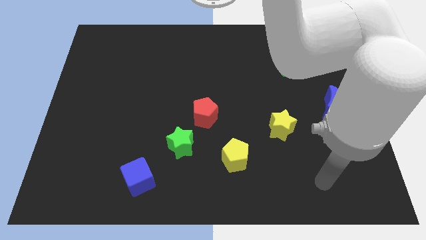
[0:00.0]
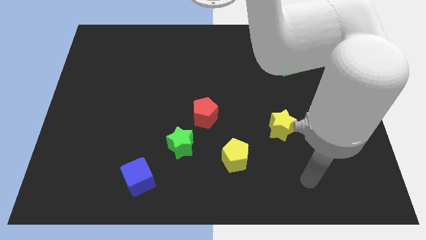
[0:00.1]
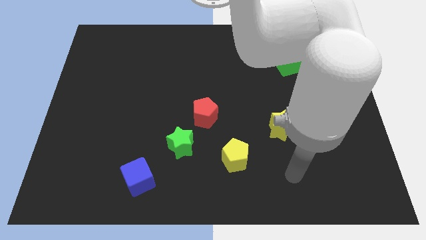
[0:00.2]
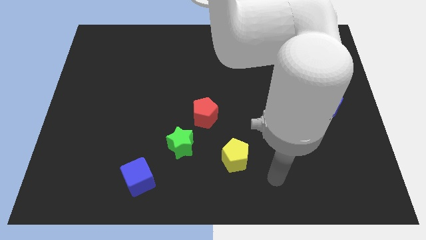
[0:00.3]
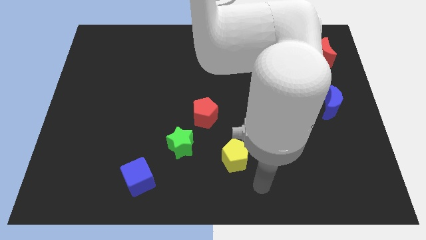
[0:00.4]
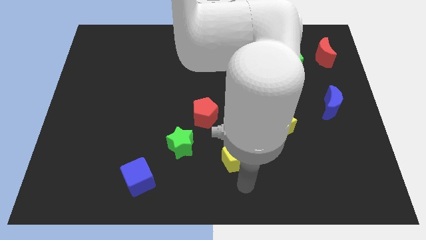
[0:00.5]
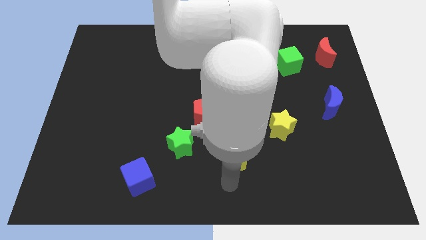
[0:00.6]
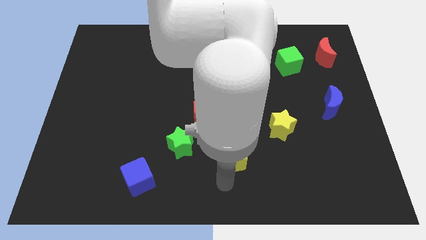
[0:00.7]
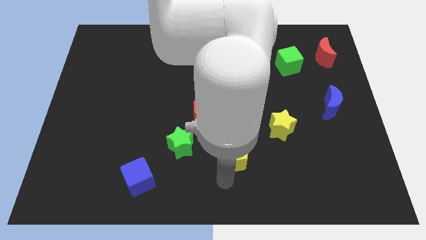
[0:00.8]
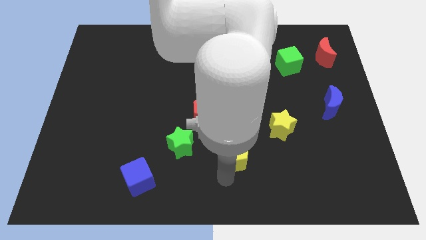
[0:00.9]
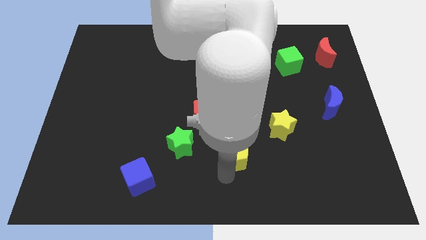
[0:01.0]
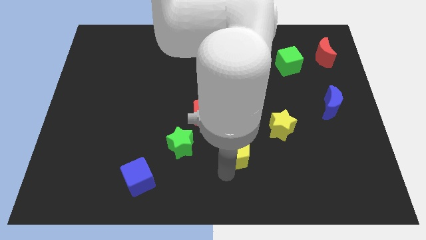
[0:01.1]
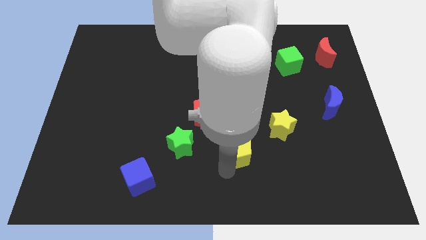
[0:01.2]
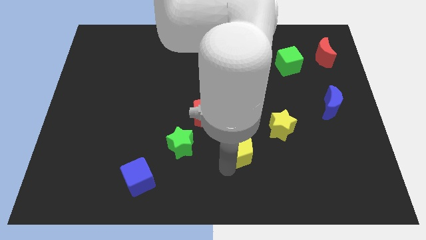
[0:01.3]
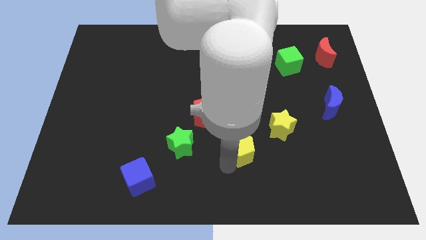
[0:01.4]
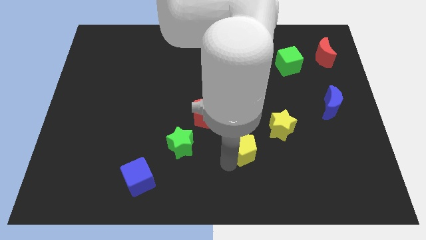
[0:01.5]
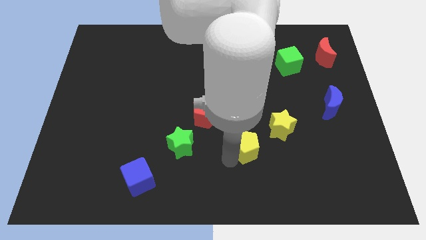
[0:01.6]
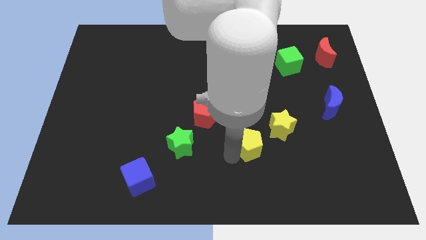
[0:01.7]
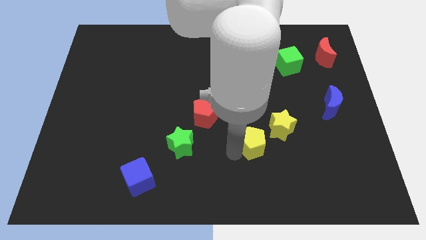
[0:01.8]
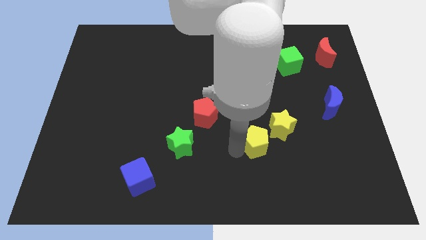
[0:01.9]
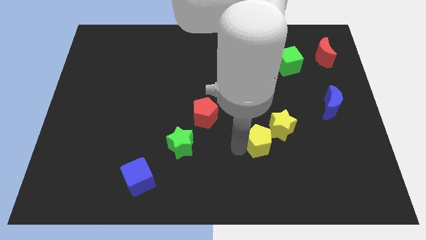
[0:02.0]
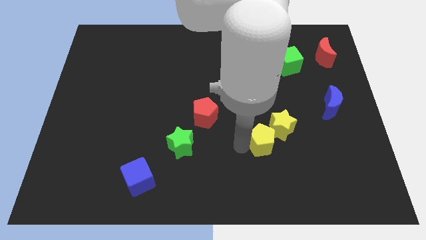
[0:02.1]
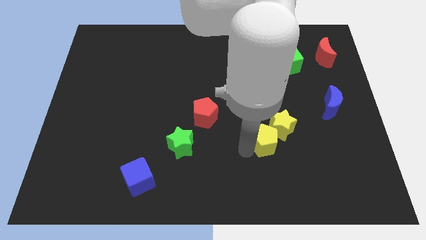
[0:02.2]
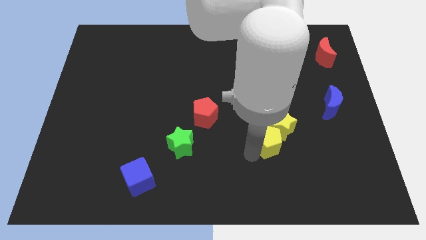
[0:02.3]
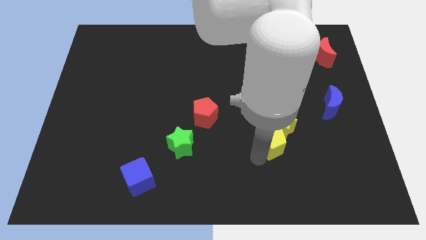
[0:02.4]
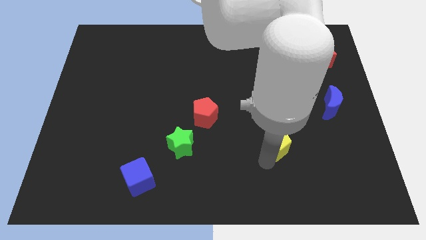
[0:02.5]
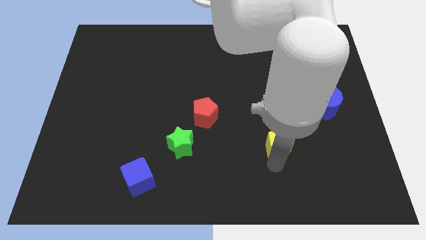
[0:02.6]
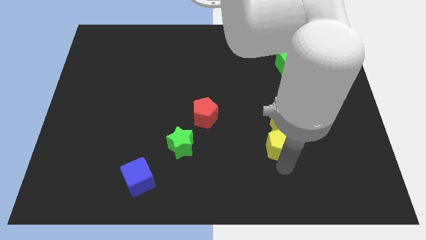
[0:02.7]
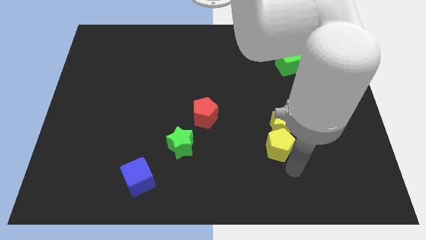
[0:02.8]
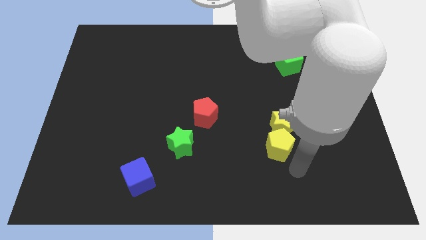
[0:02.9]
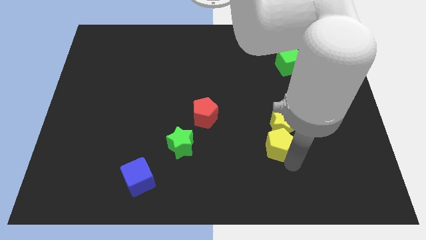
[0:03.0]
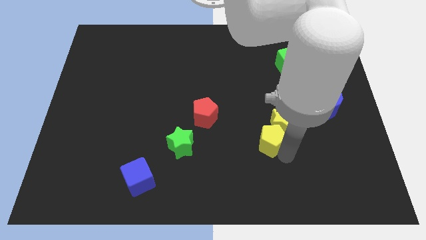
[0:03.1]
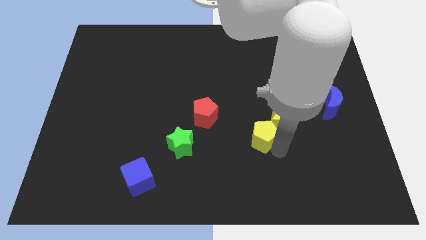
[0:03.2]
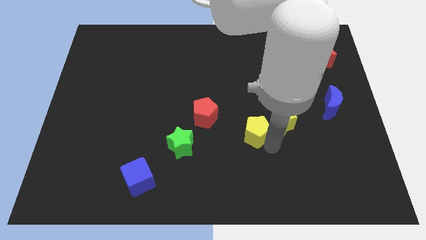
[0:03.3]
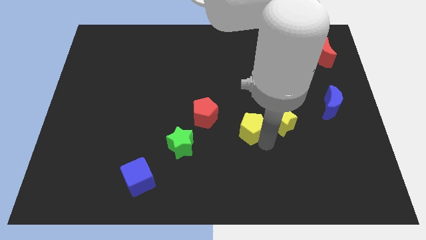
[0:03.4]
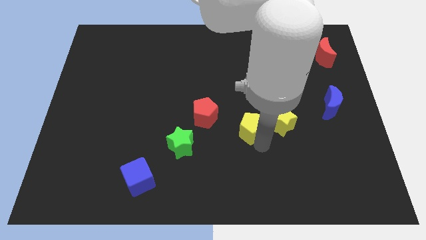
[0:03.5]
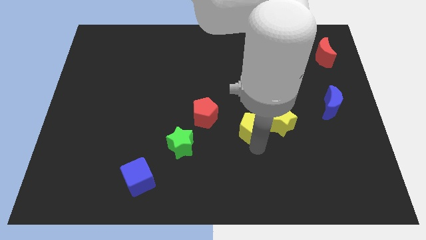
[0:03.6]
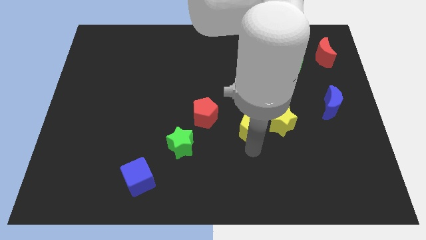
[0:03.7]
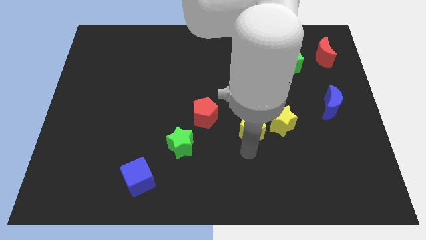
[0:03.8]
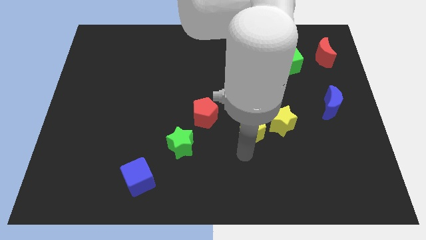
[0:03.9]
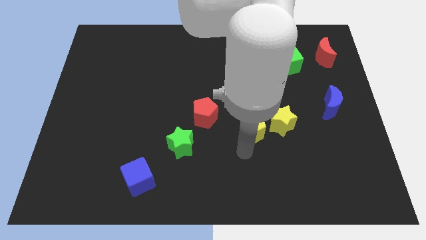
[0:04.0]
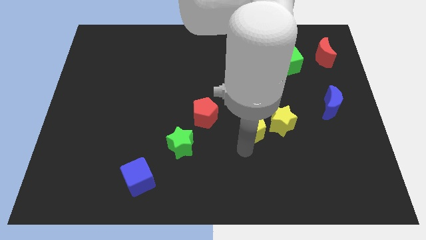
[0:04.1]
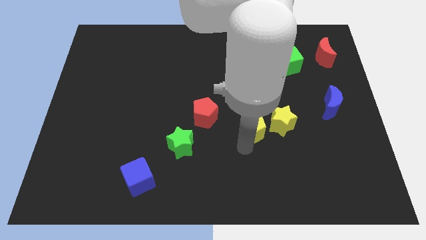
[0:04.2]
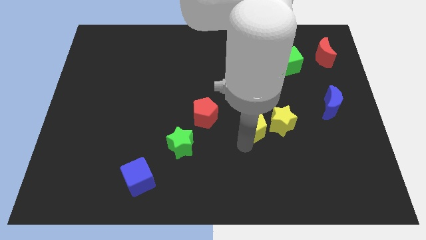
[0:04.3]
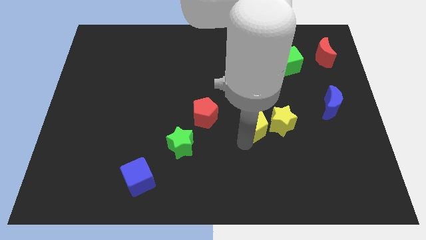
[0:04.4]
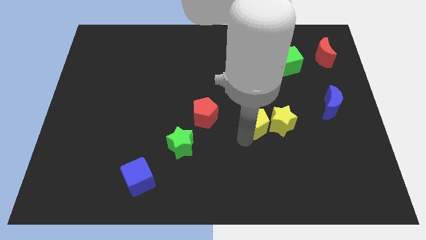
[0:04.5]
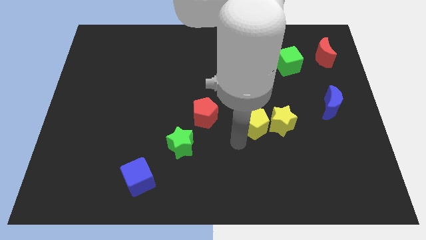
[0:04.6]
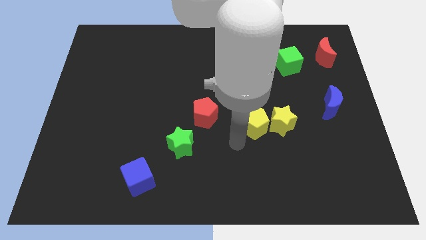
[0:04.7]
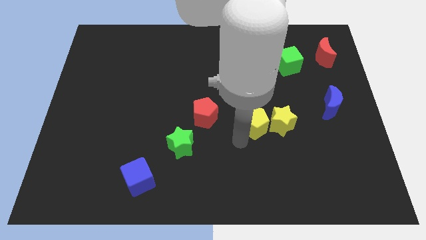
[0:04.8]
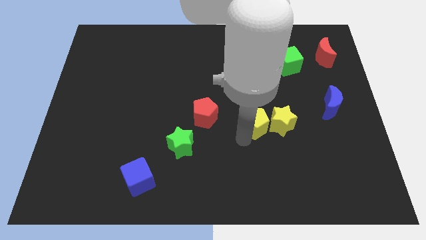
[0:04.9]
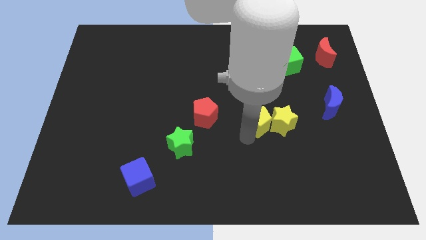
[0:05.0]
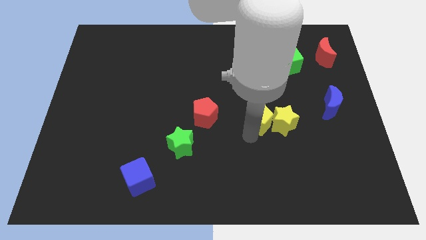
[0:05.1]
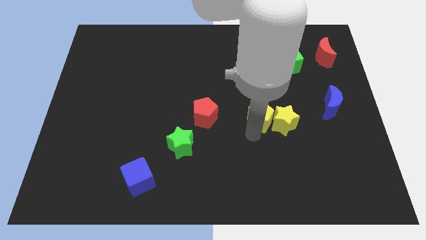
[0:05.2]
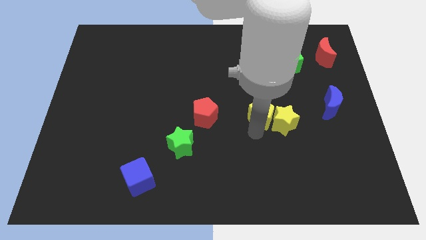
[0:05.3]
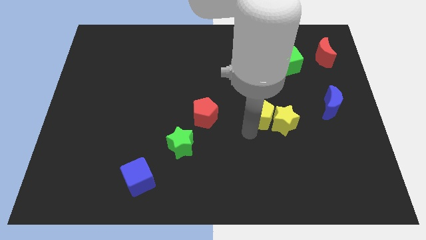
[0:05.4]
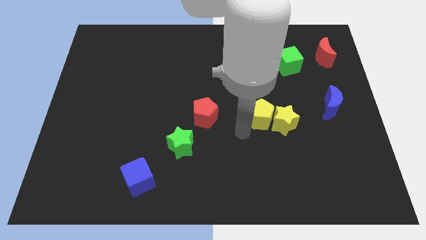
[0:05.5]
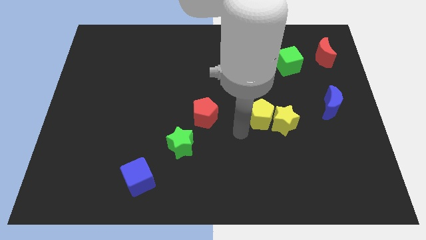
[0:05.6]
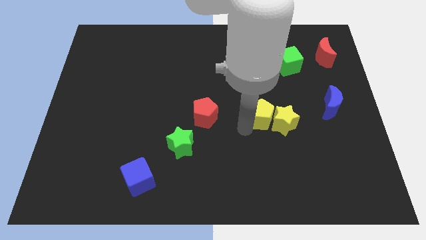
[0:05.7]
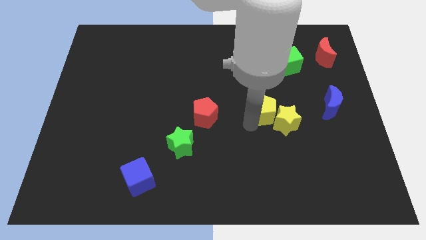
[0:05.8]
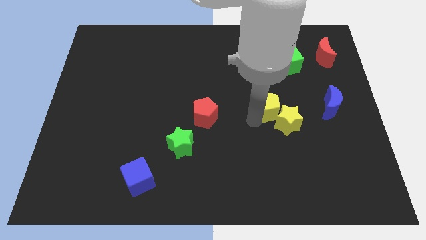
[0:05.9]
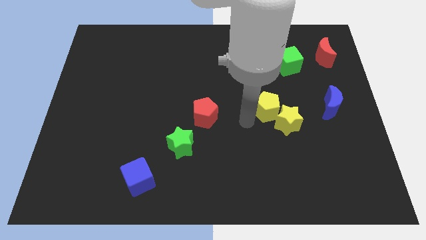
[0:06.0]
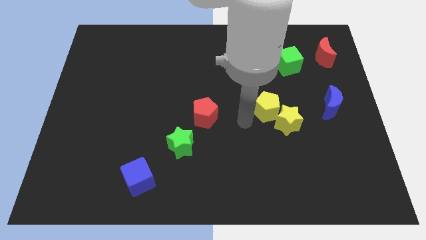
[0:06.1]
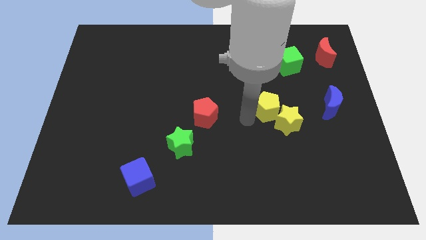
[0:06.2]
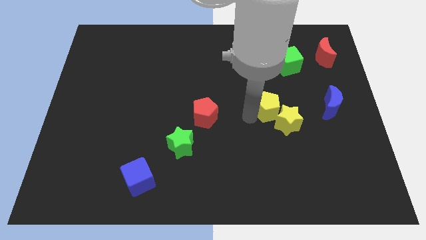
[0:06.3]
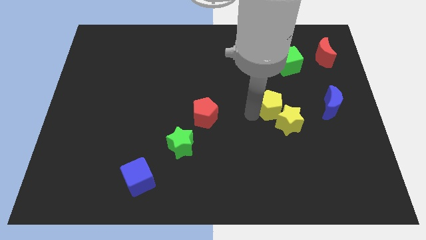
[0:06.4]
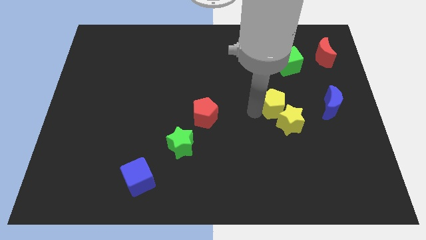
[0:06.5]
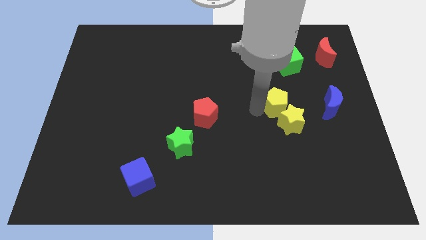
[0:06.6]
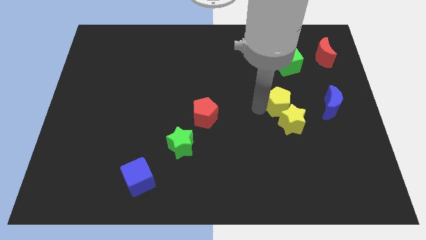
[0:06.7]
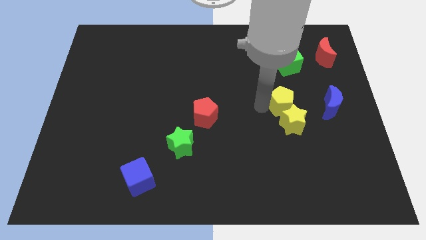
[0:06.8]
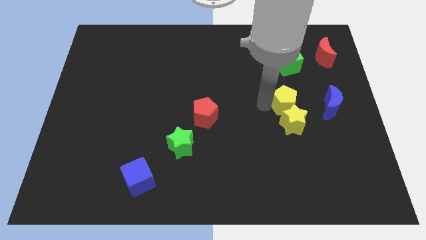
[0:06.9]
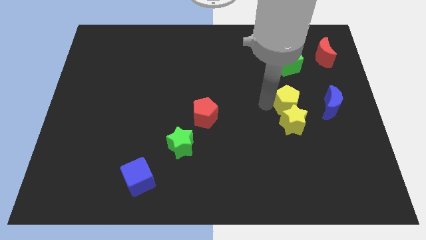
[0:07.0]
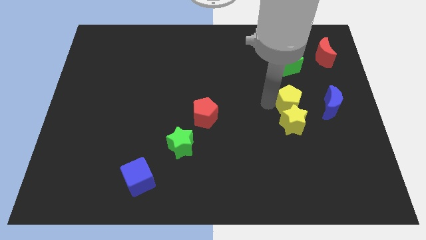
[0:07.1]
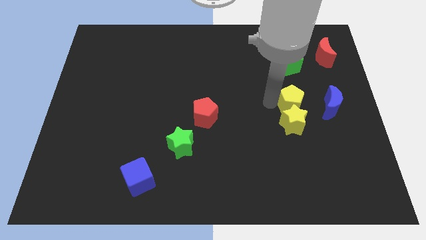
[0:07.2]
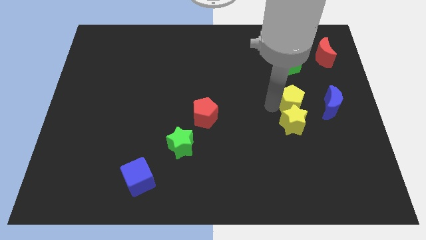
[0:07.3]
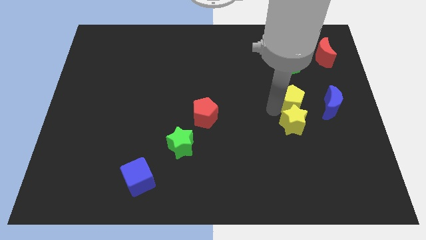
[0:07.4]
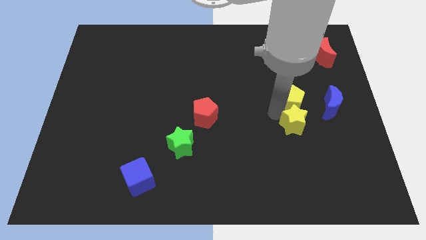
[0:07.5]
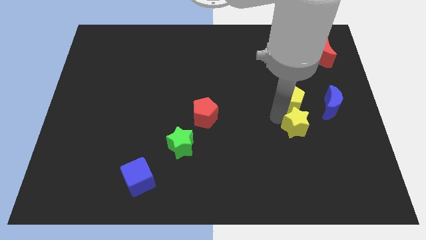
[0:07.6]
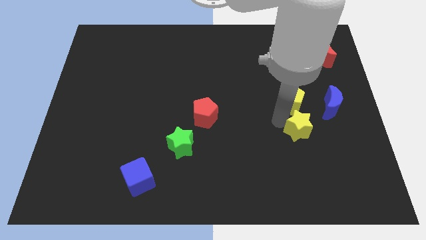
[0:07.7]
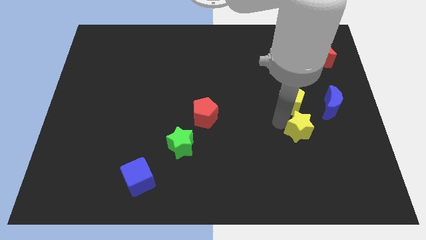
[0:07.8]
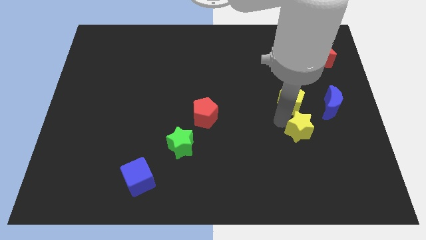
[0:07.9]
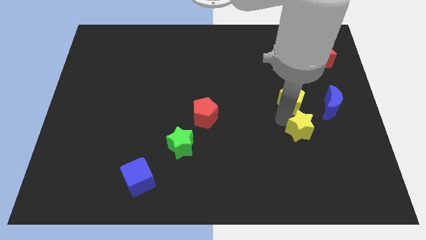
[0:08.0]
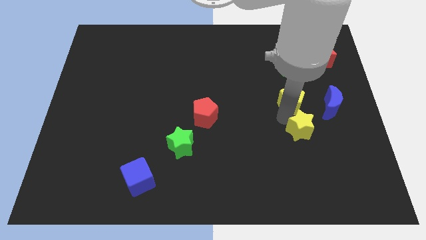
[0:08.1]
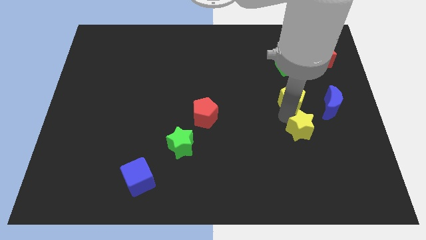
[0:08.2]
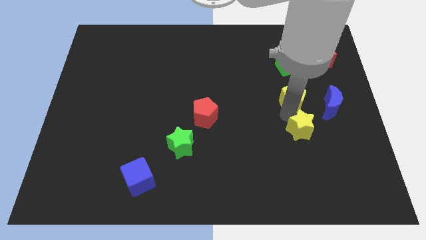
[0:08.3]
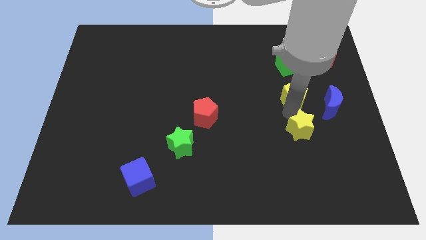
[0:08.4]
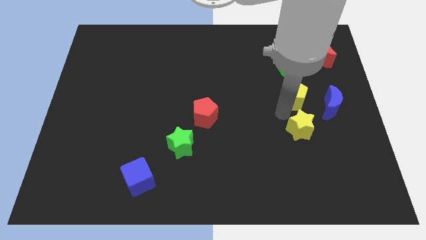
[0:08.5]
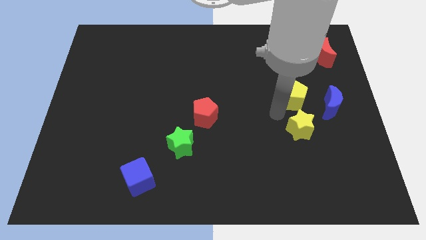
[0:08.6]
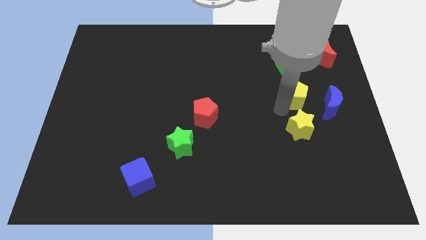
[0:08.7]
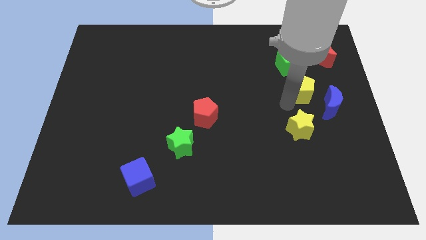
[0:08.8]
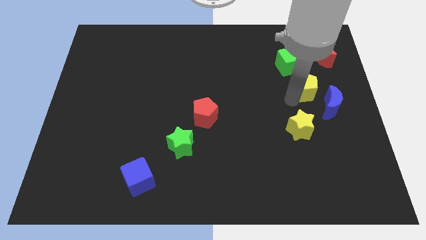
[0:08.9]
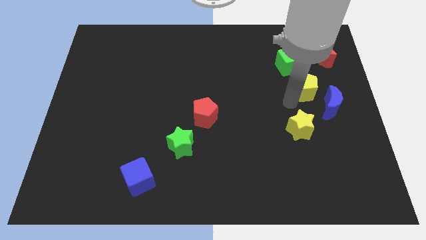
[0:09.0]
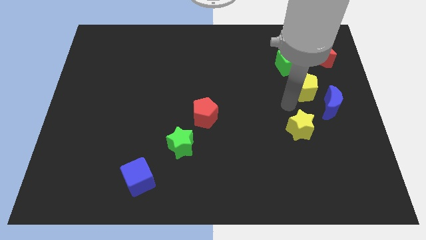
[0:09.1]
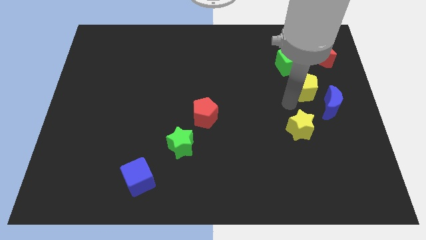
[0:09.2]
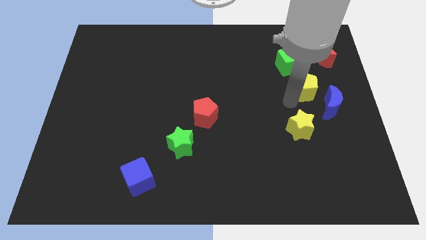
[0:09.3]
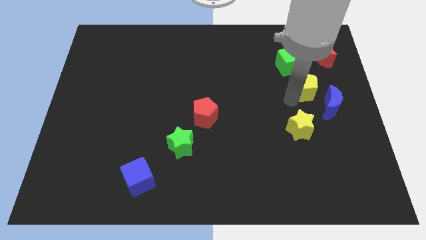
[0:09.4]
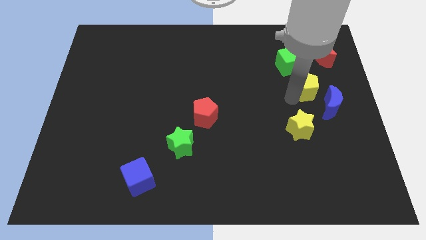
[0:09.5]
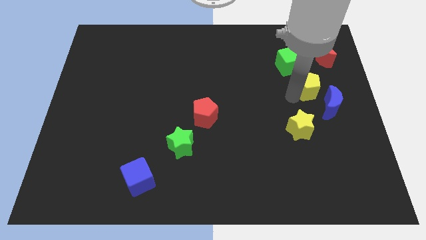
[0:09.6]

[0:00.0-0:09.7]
put the yellow pentagon above the blue moon
